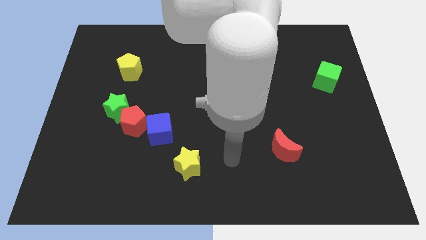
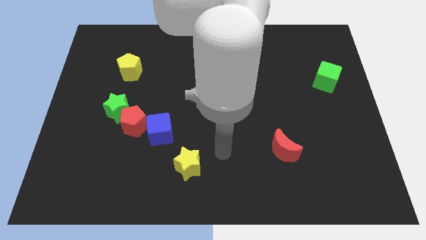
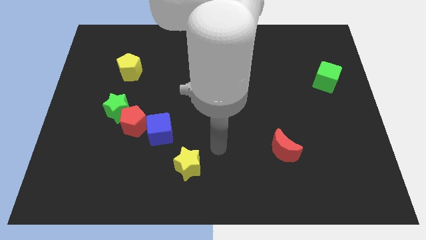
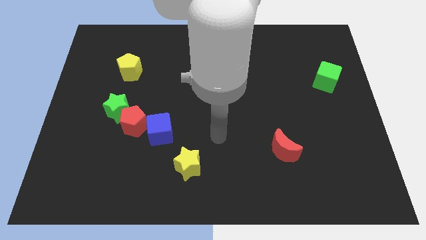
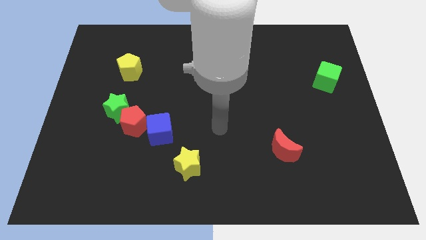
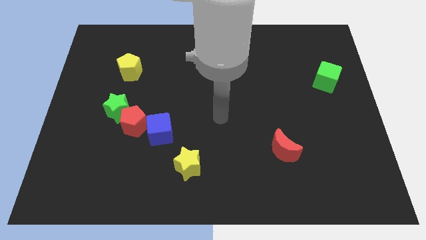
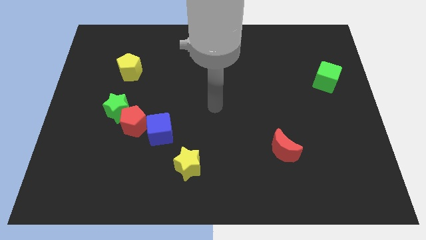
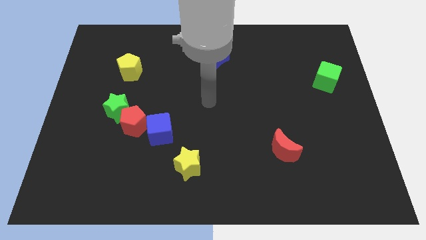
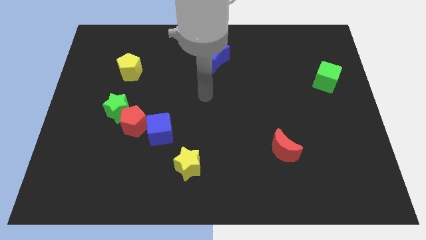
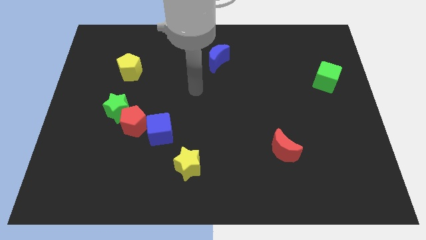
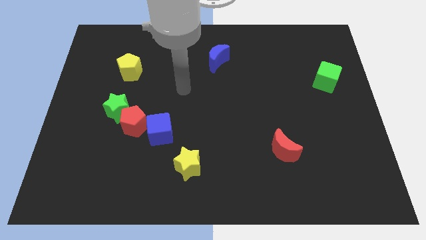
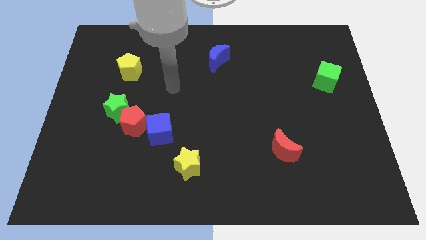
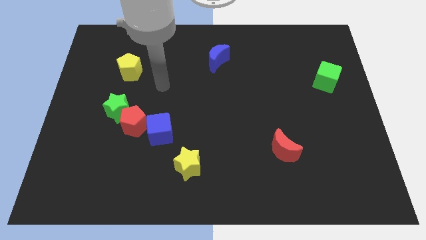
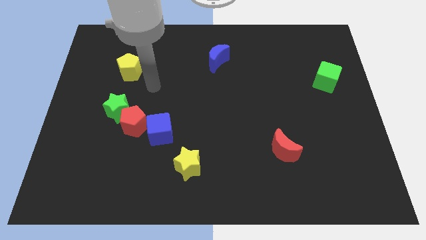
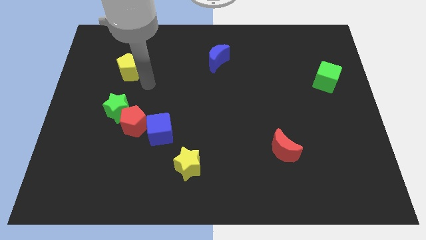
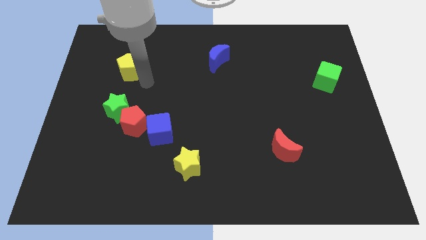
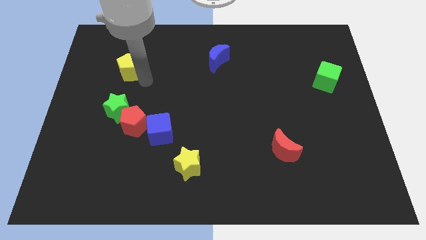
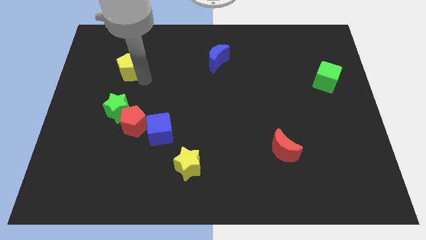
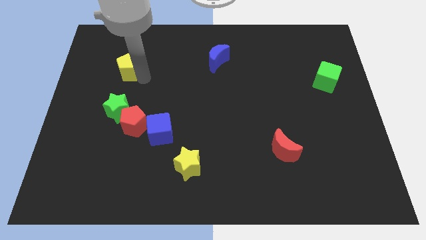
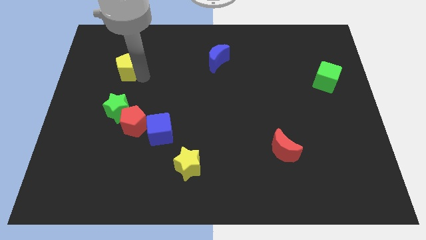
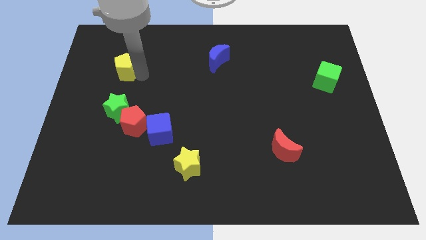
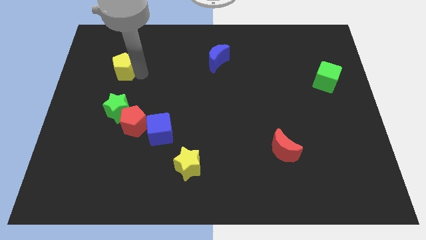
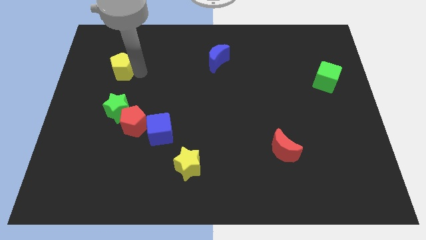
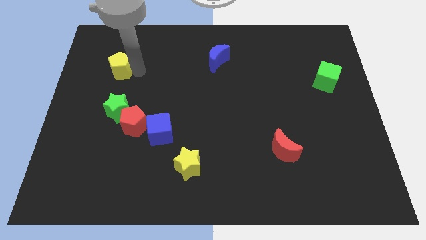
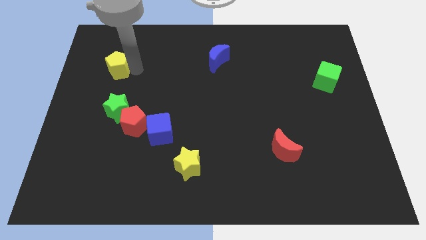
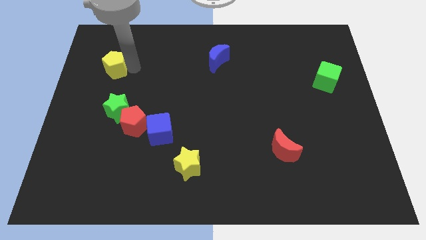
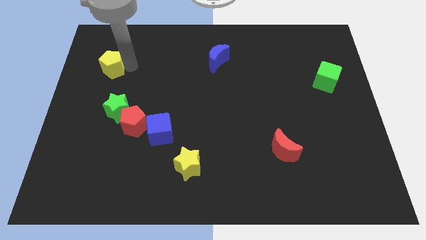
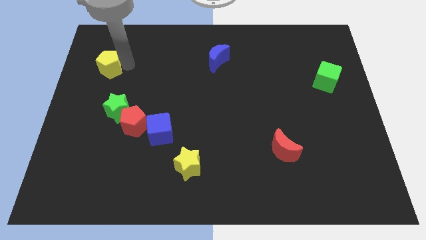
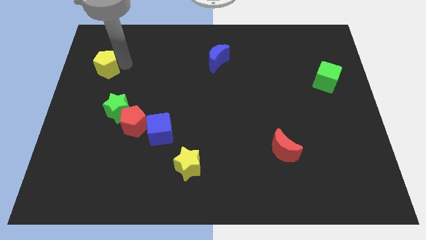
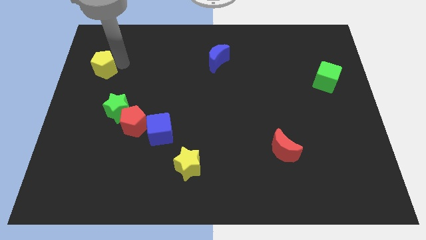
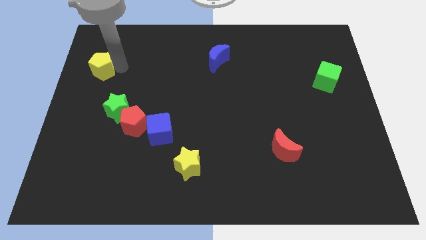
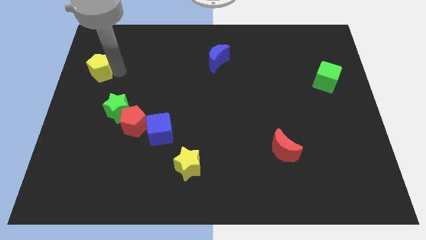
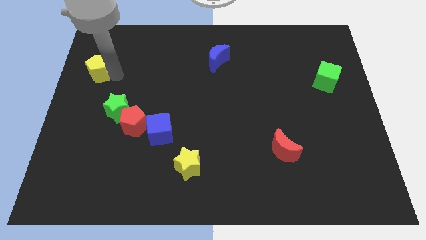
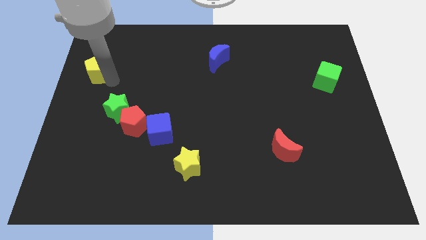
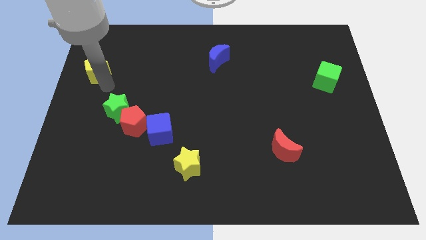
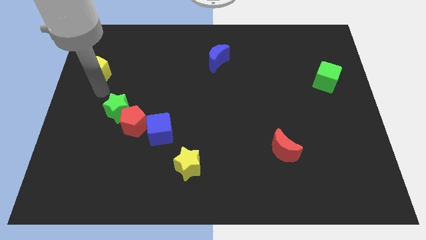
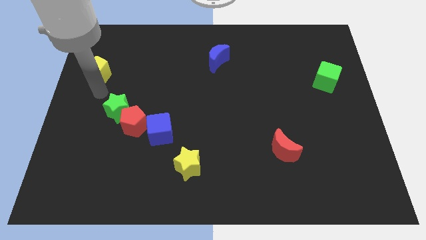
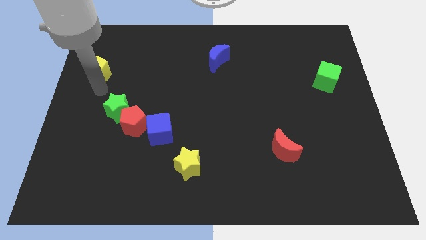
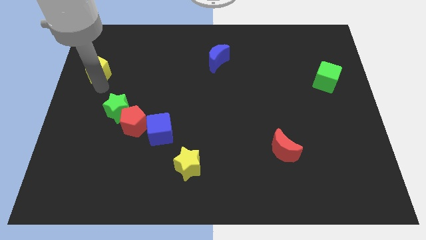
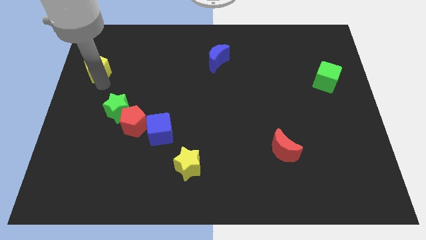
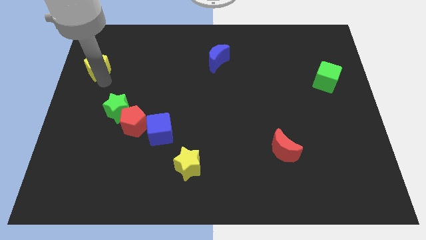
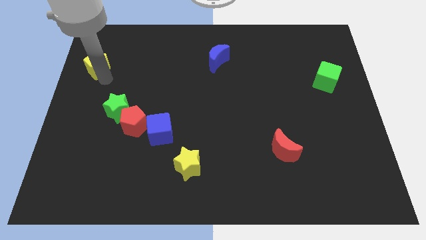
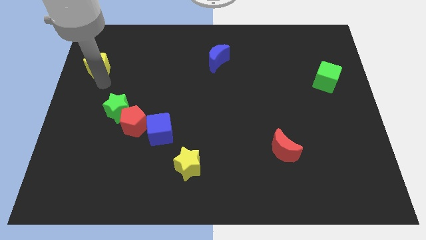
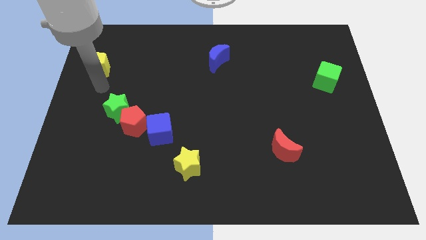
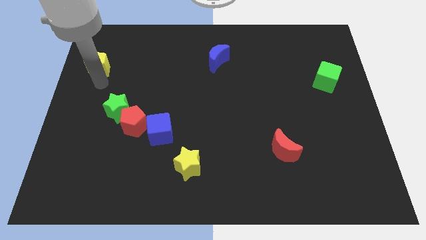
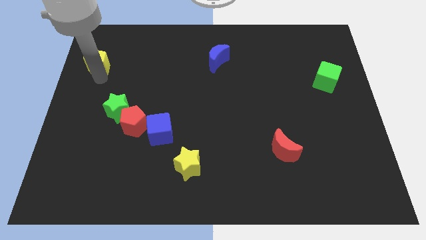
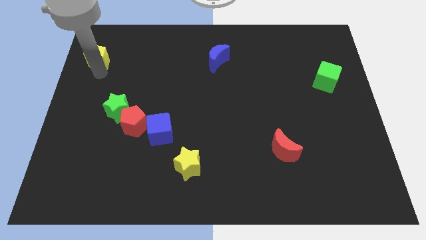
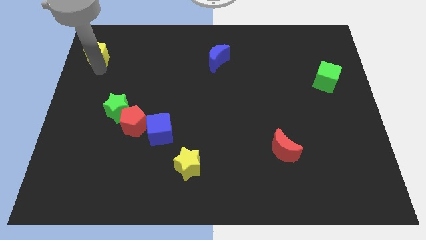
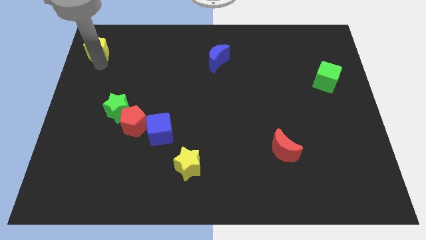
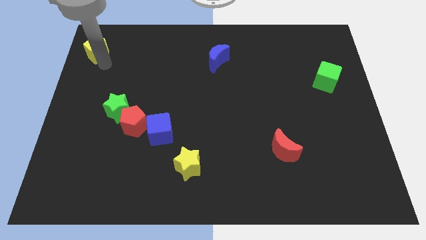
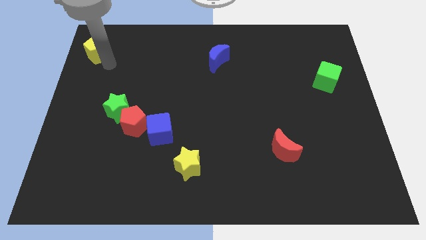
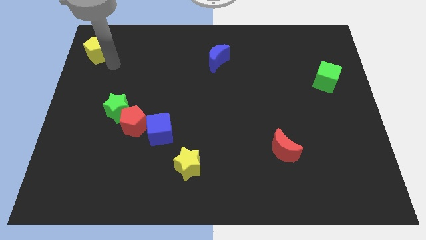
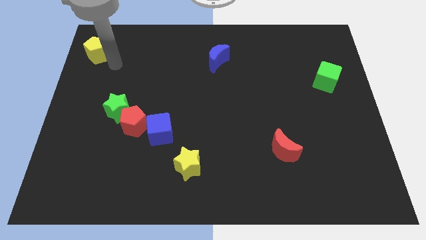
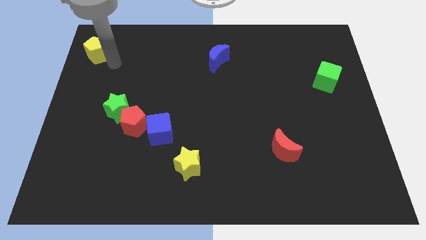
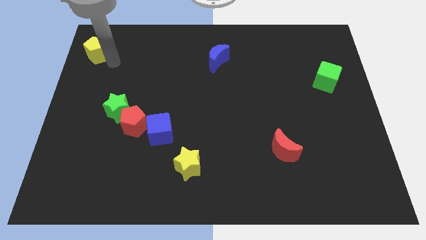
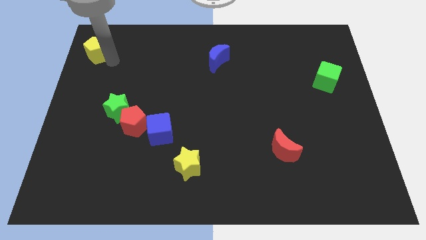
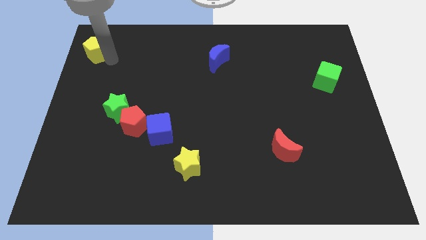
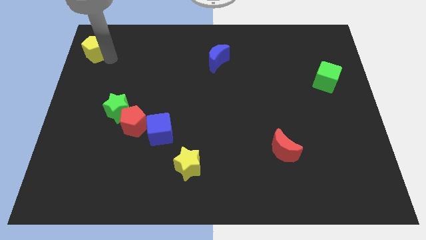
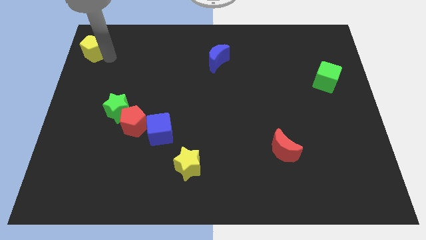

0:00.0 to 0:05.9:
move the yellow pentagon to the top left of the board
